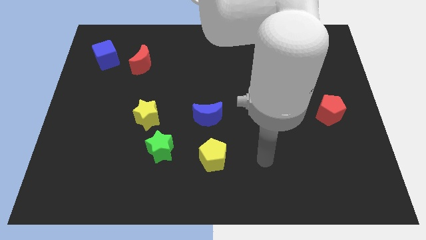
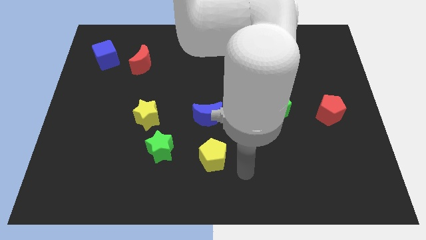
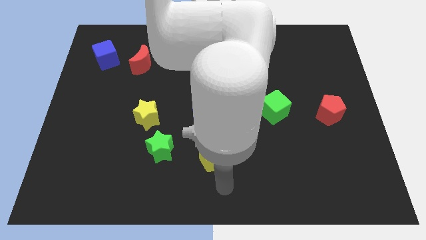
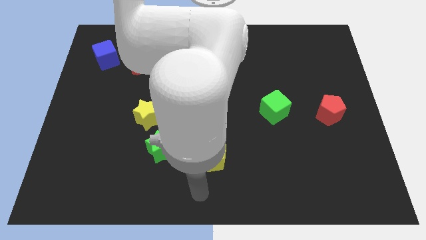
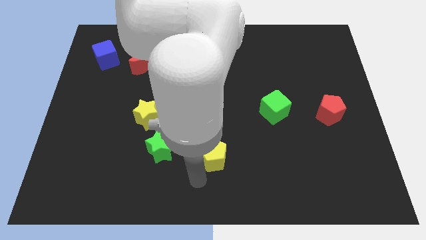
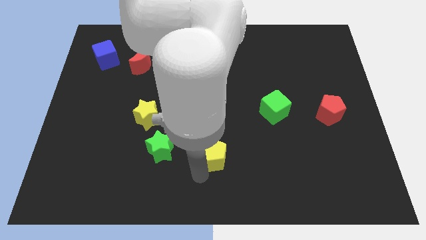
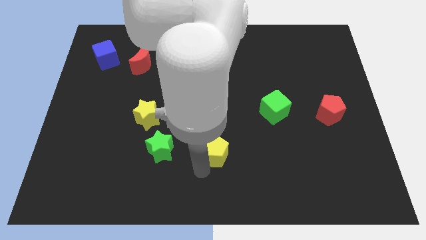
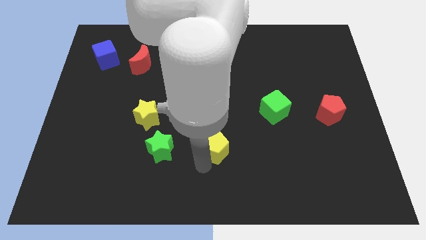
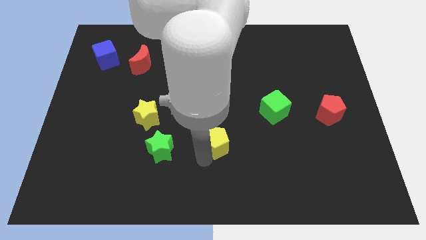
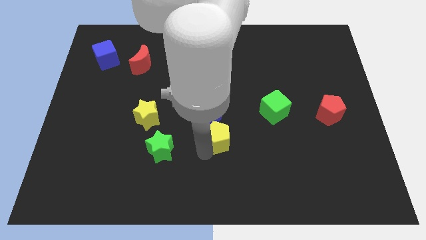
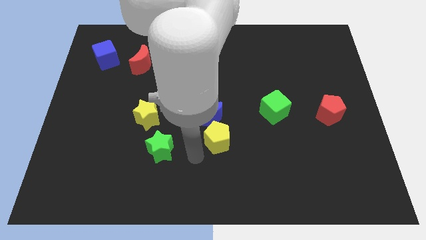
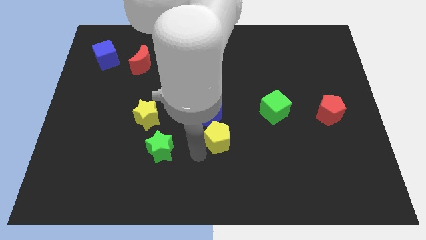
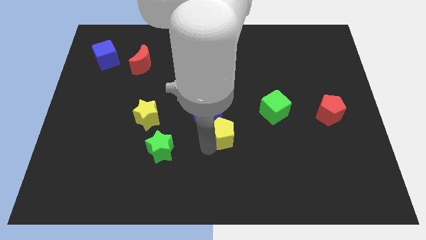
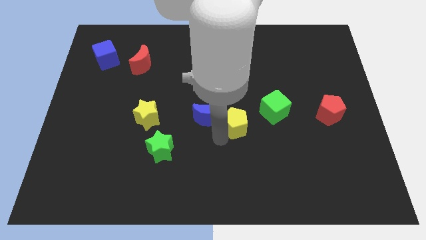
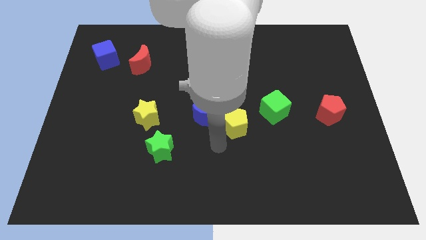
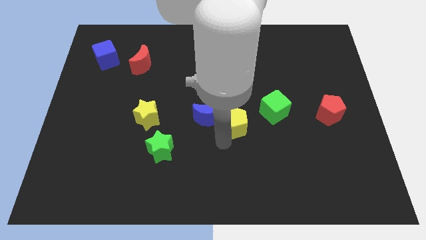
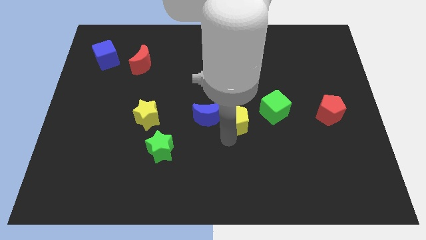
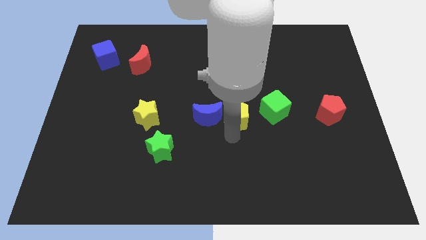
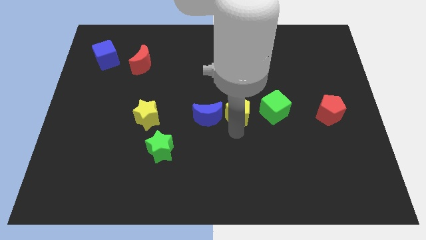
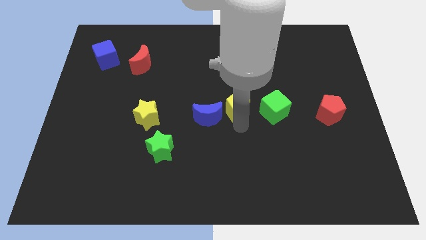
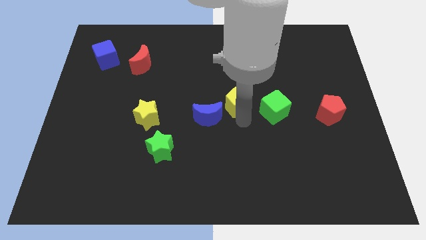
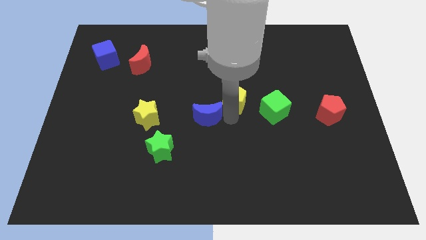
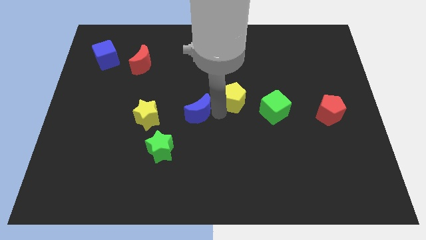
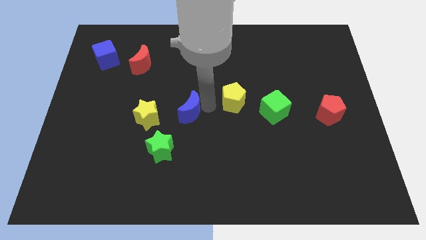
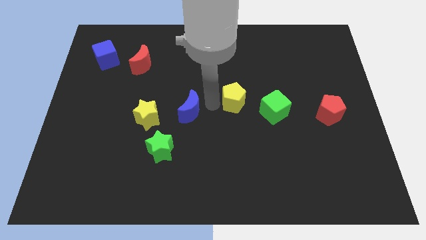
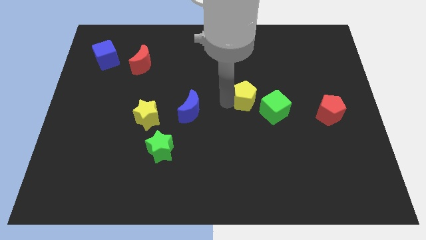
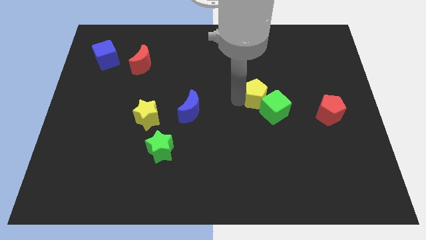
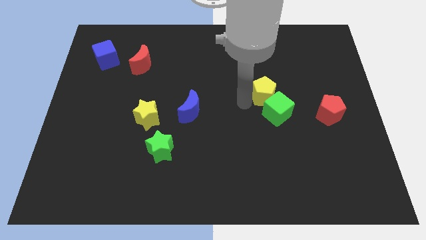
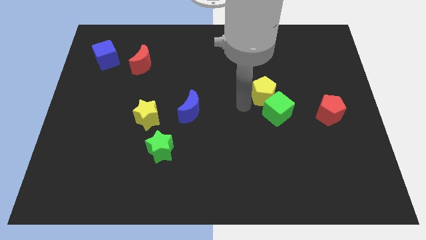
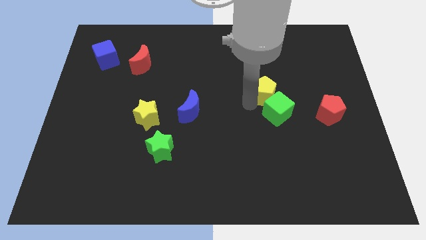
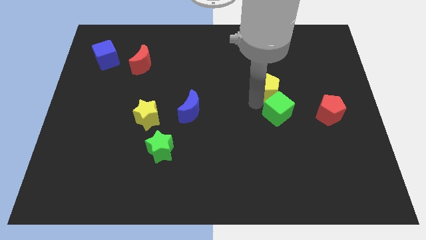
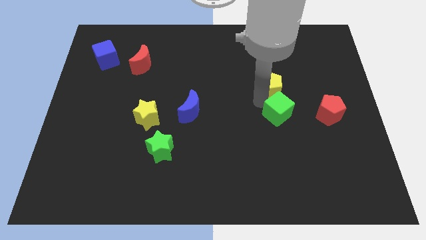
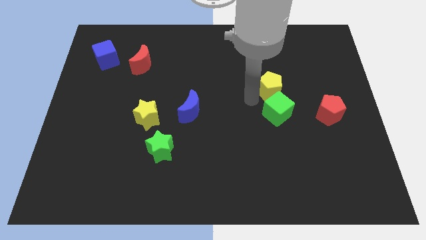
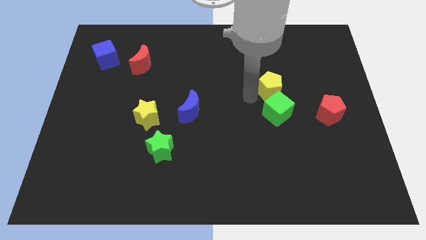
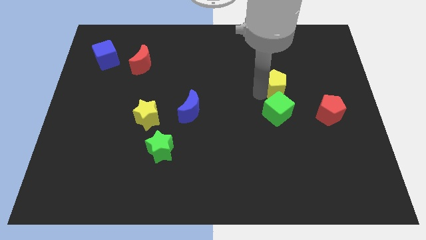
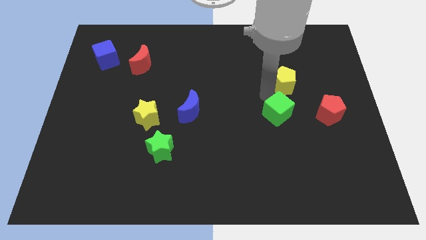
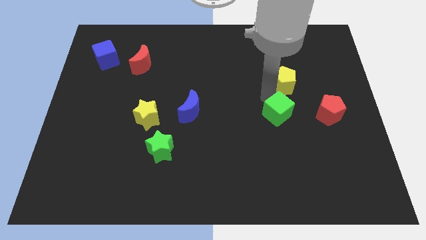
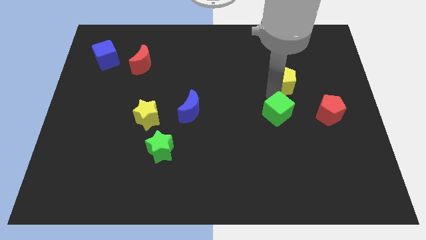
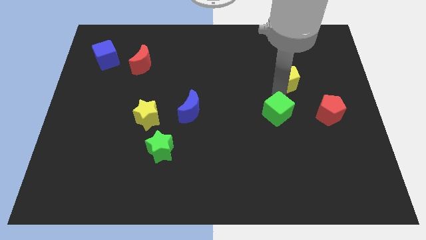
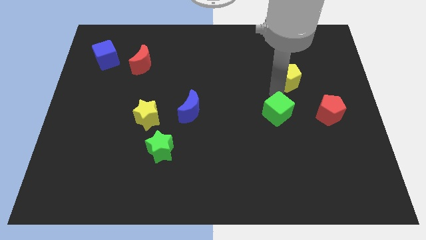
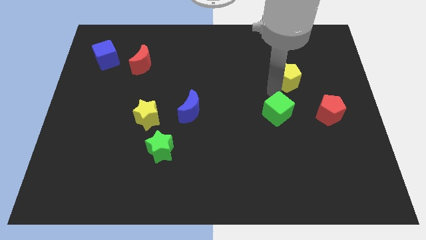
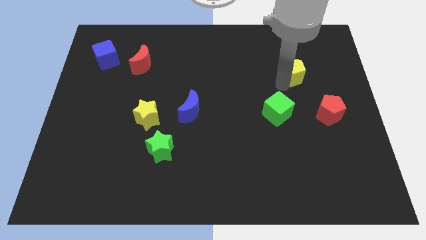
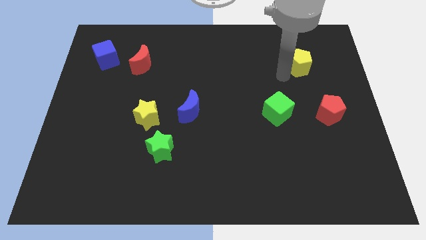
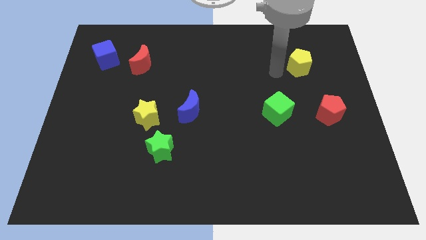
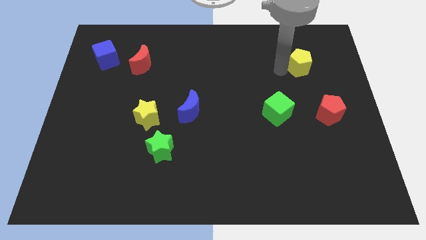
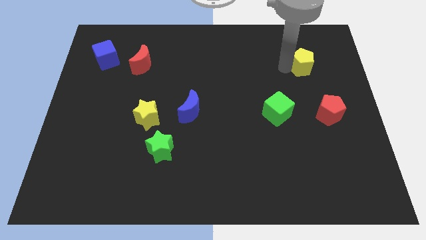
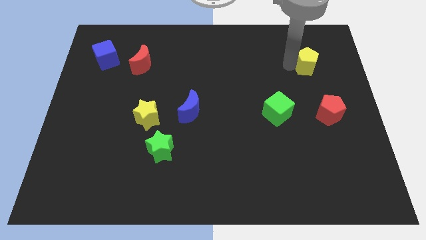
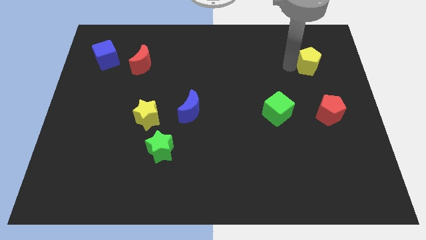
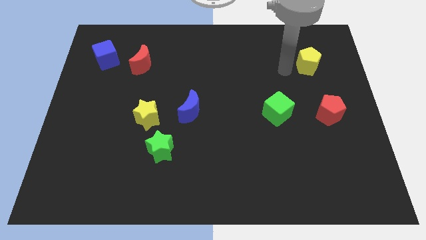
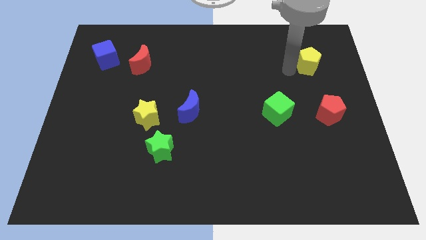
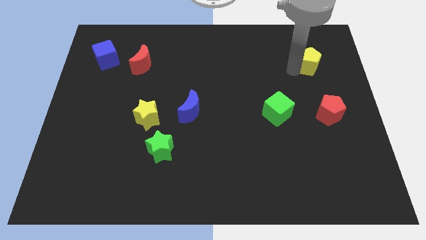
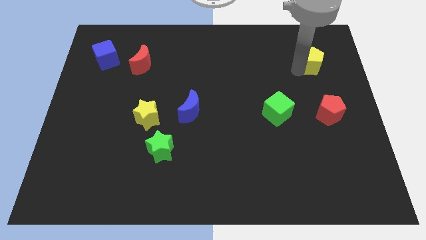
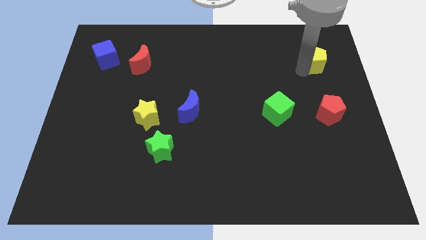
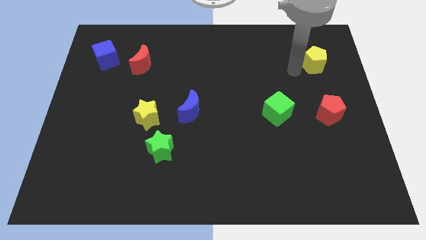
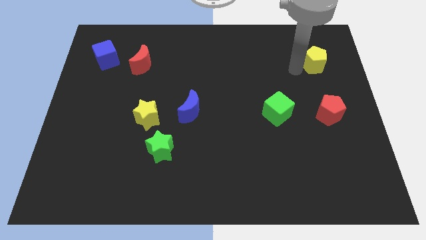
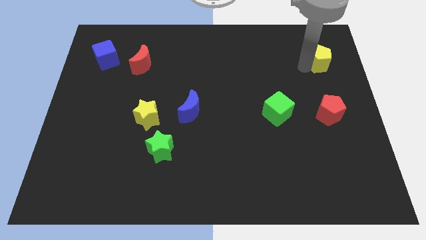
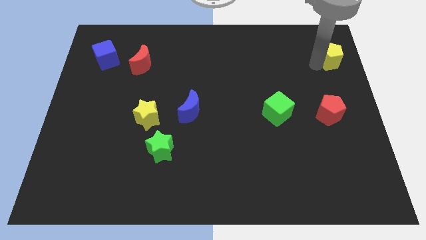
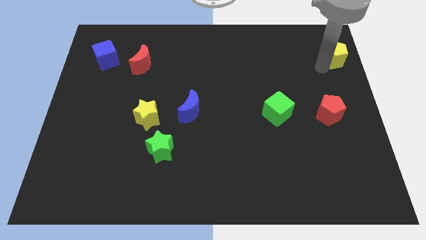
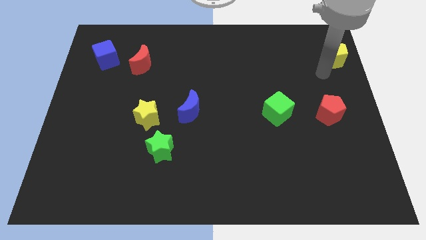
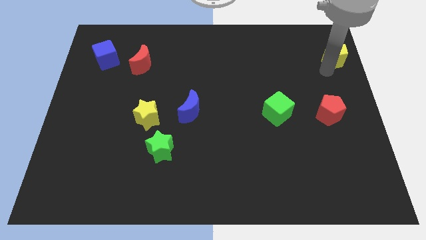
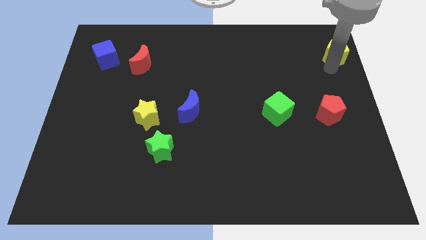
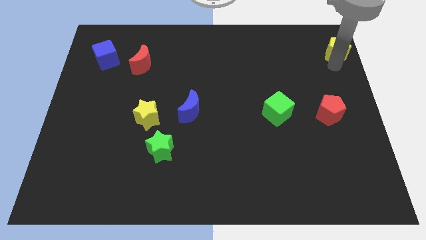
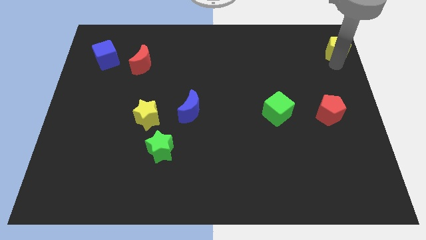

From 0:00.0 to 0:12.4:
push the yellow pentagon to the top right corner
